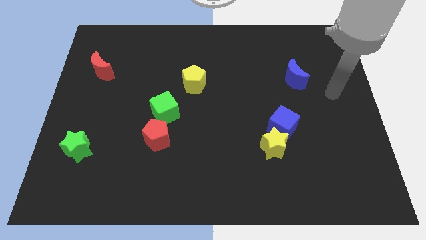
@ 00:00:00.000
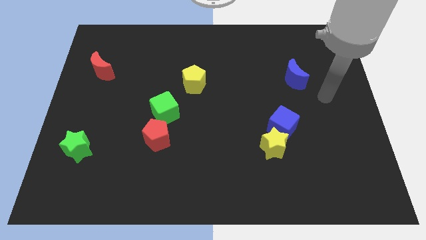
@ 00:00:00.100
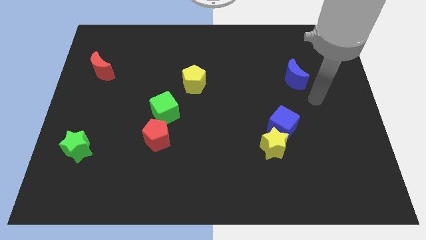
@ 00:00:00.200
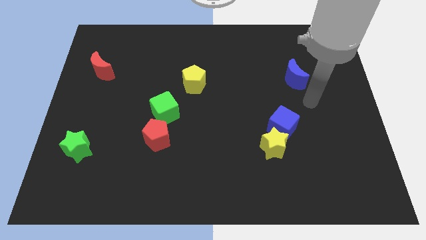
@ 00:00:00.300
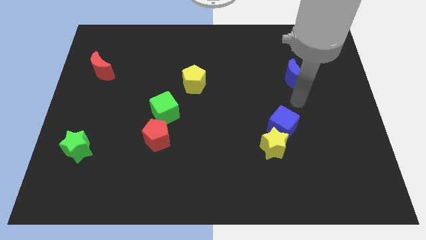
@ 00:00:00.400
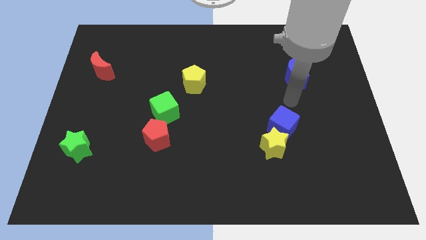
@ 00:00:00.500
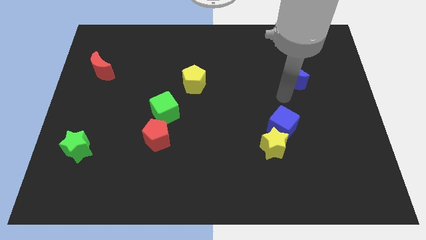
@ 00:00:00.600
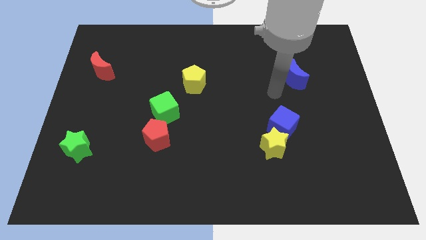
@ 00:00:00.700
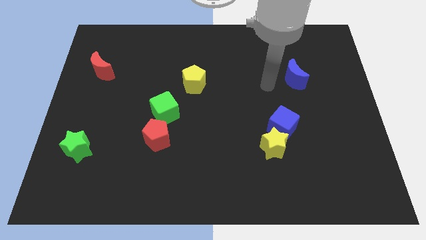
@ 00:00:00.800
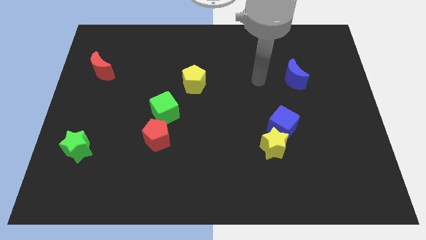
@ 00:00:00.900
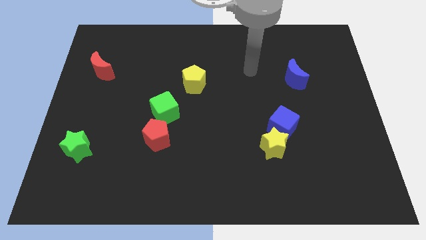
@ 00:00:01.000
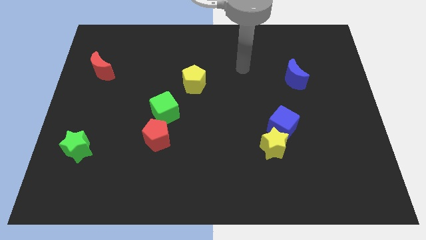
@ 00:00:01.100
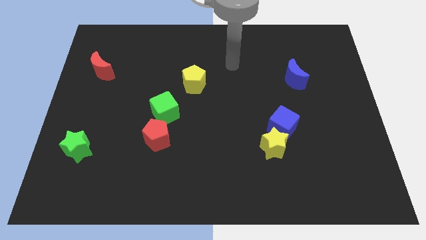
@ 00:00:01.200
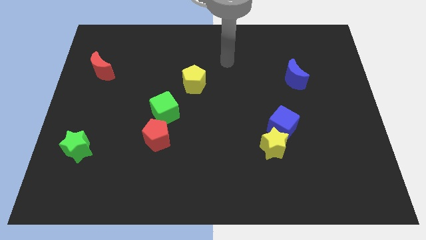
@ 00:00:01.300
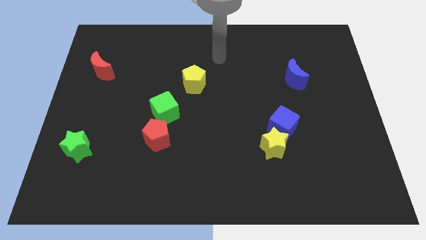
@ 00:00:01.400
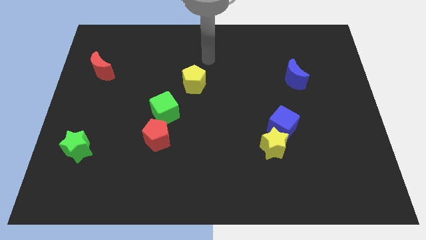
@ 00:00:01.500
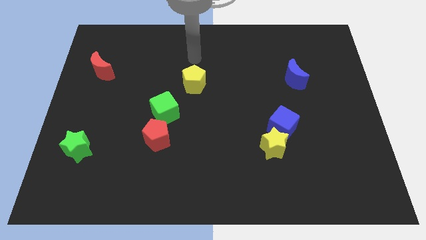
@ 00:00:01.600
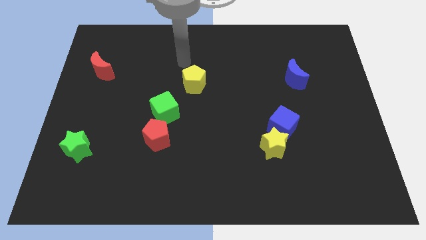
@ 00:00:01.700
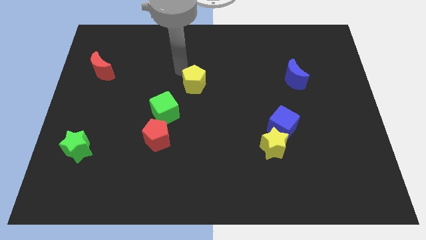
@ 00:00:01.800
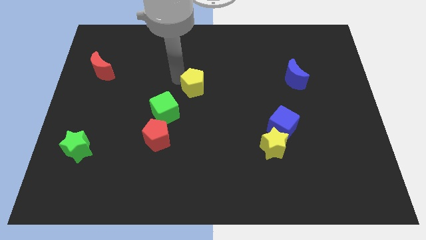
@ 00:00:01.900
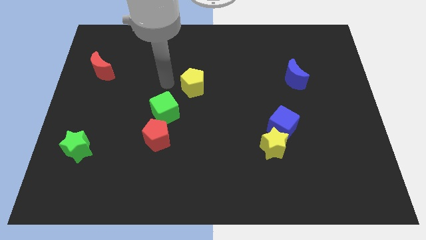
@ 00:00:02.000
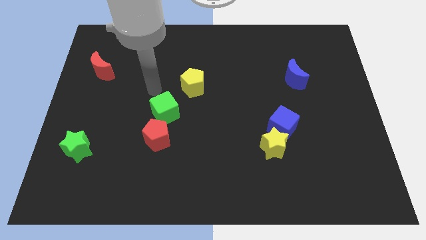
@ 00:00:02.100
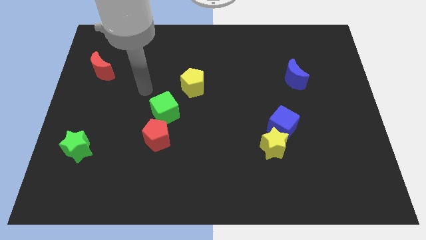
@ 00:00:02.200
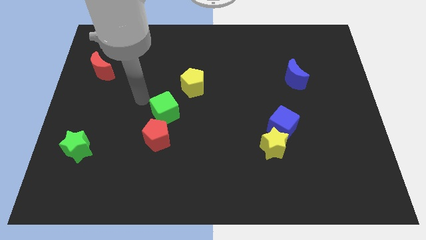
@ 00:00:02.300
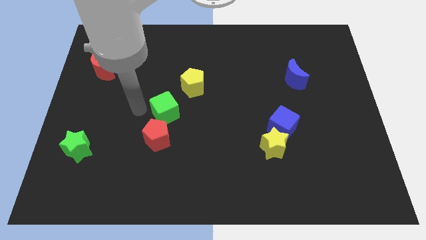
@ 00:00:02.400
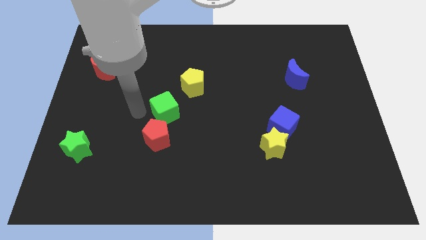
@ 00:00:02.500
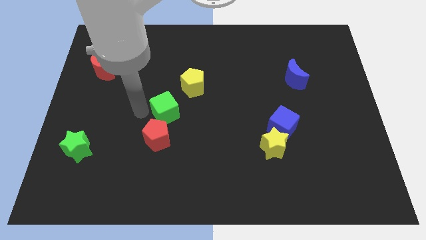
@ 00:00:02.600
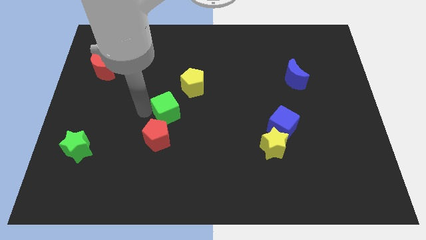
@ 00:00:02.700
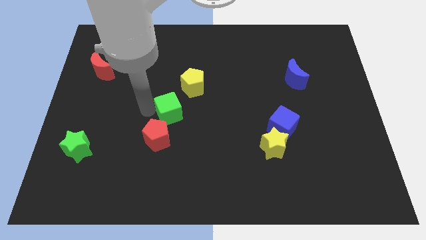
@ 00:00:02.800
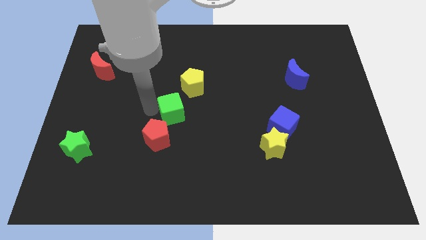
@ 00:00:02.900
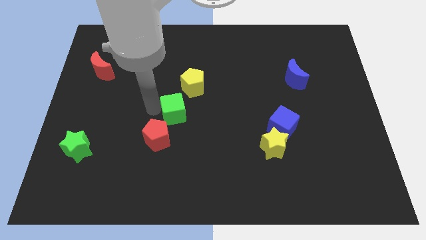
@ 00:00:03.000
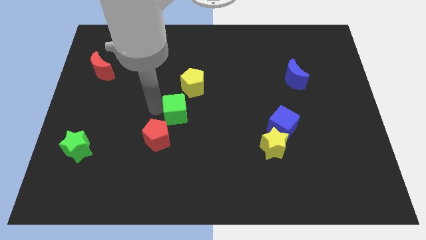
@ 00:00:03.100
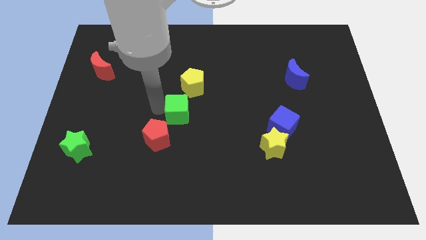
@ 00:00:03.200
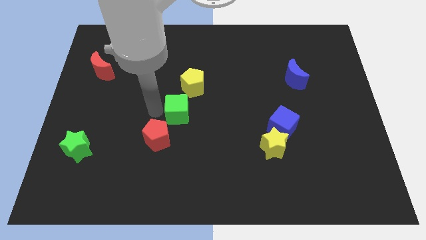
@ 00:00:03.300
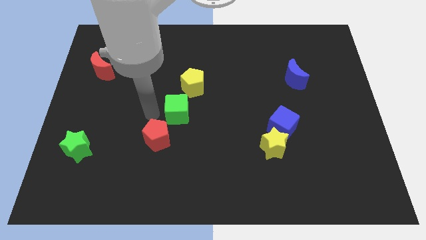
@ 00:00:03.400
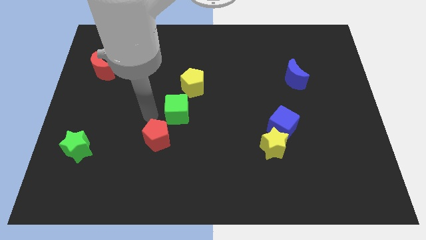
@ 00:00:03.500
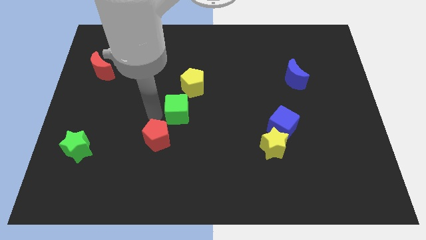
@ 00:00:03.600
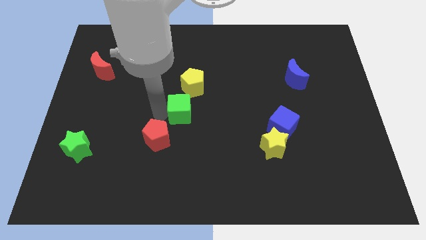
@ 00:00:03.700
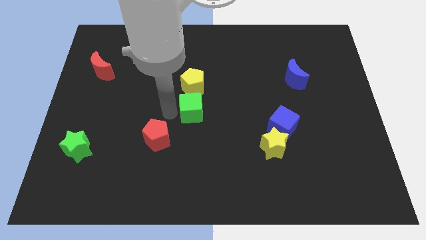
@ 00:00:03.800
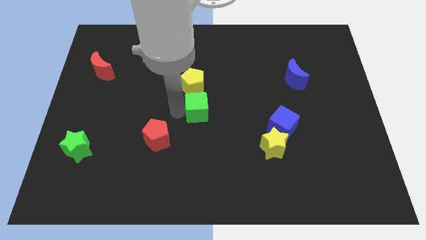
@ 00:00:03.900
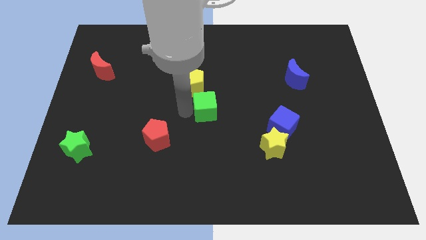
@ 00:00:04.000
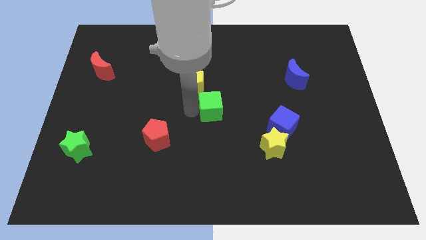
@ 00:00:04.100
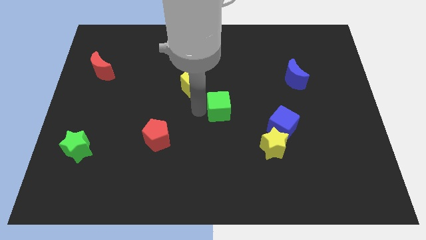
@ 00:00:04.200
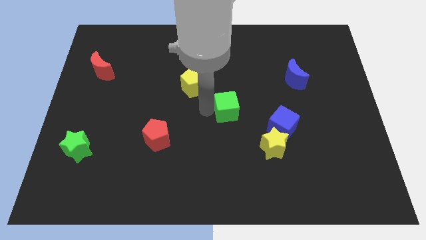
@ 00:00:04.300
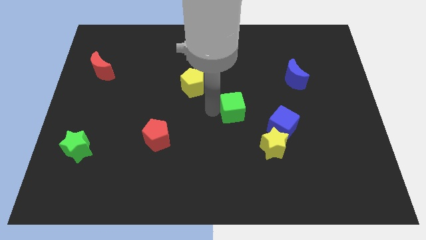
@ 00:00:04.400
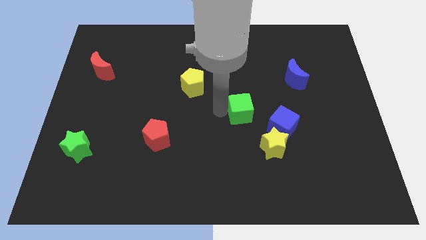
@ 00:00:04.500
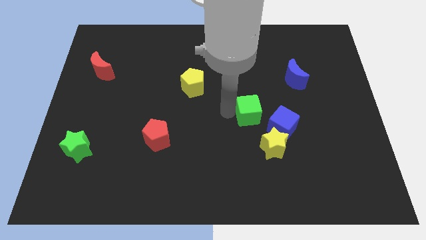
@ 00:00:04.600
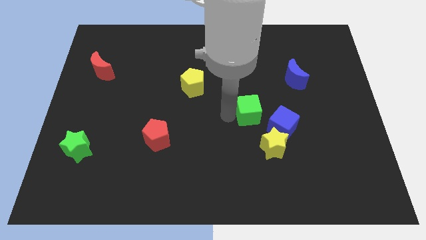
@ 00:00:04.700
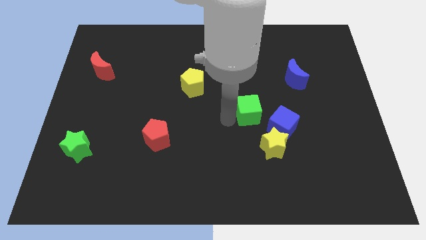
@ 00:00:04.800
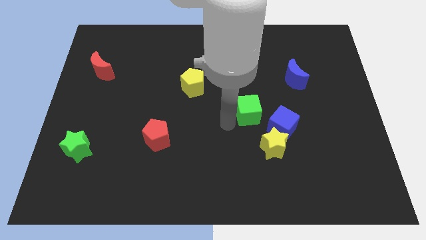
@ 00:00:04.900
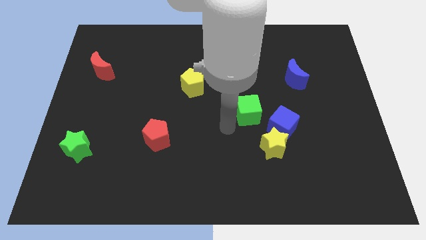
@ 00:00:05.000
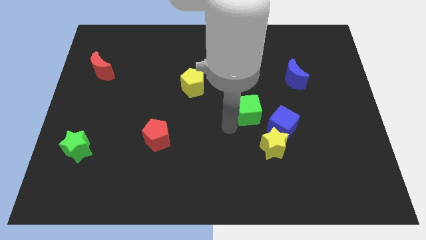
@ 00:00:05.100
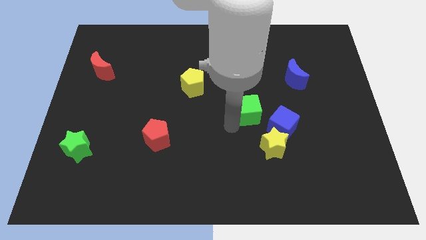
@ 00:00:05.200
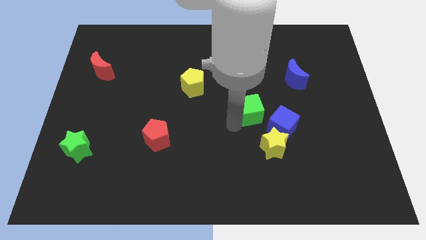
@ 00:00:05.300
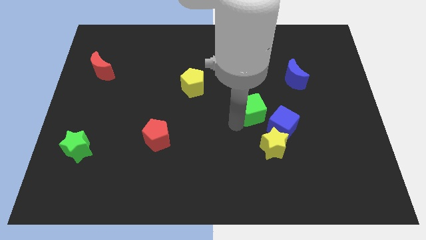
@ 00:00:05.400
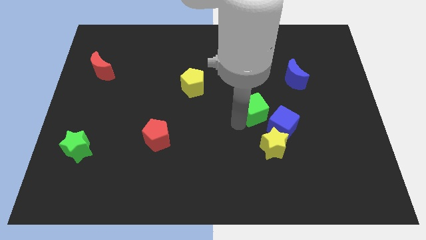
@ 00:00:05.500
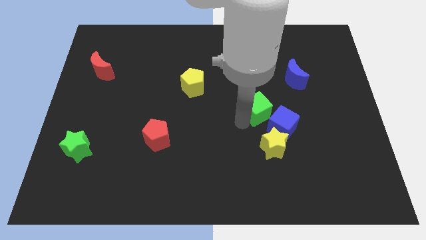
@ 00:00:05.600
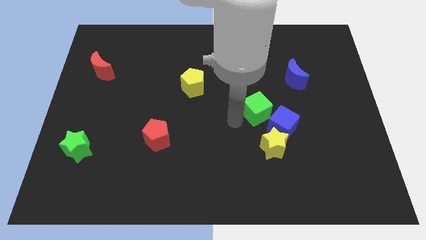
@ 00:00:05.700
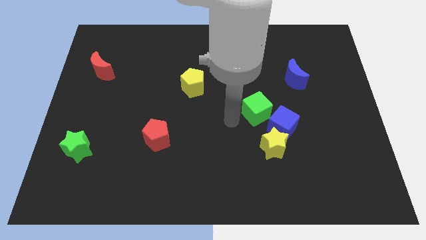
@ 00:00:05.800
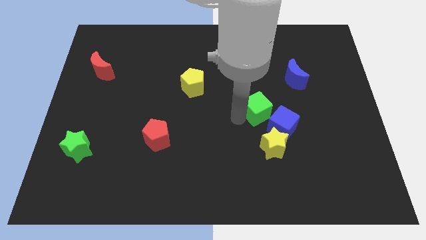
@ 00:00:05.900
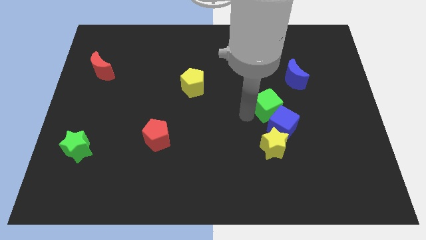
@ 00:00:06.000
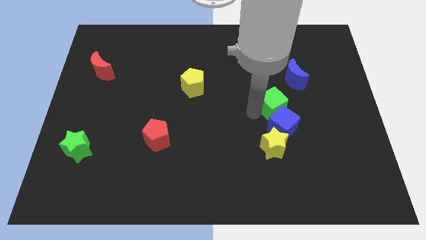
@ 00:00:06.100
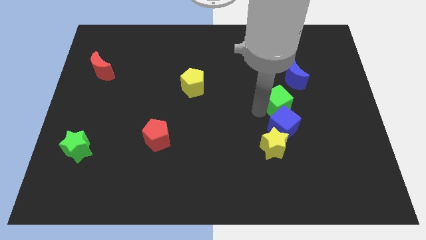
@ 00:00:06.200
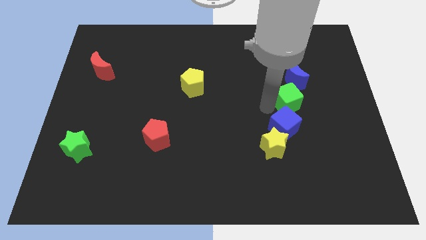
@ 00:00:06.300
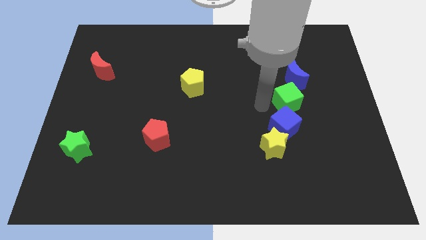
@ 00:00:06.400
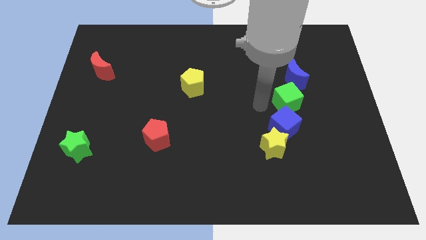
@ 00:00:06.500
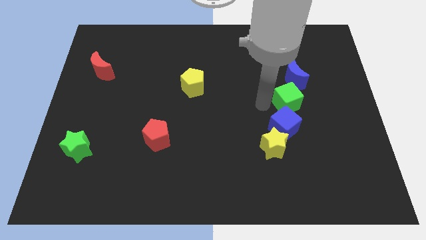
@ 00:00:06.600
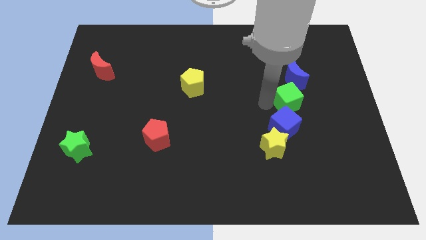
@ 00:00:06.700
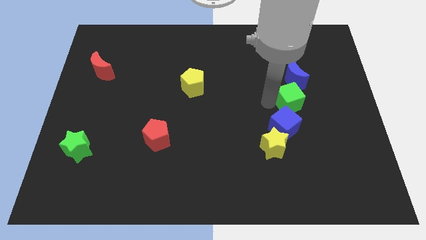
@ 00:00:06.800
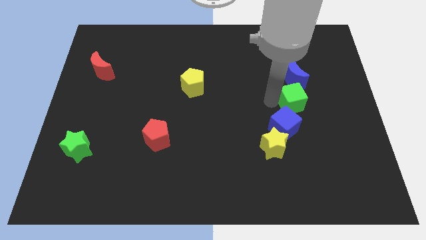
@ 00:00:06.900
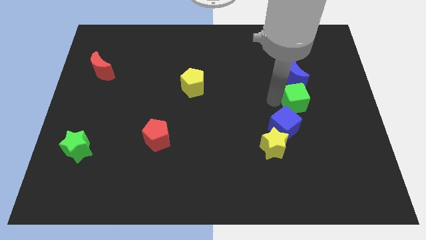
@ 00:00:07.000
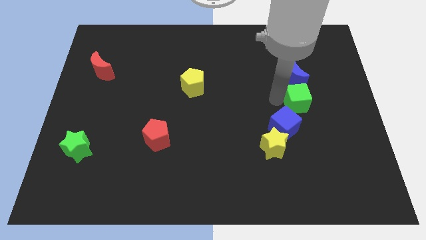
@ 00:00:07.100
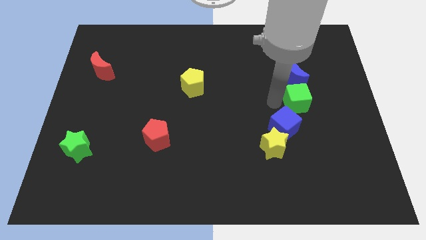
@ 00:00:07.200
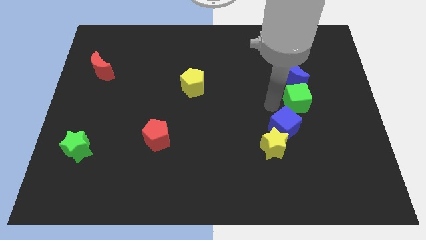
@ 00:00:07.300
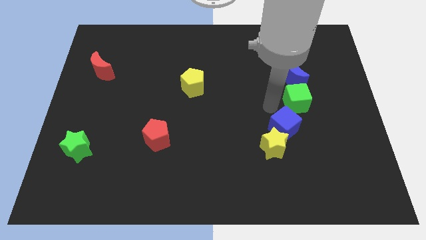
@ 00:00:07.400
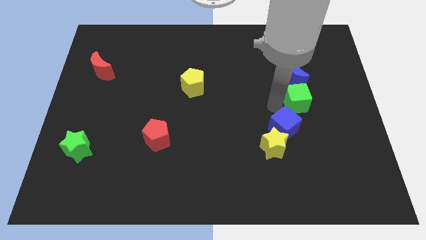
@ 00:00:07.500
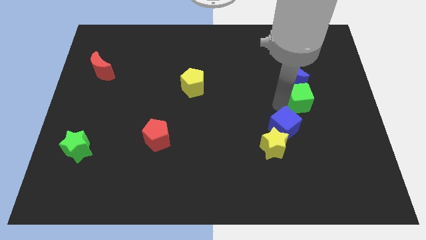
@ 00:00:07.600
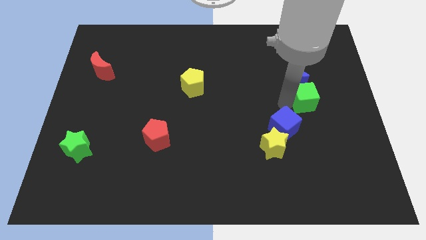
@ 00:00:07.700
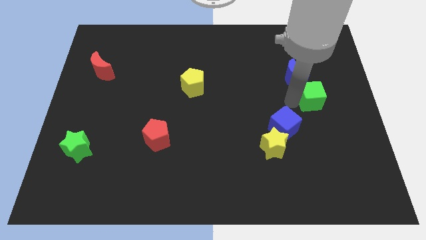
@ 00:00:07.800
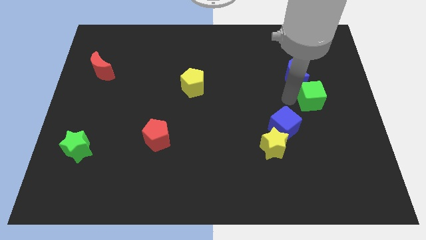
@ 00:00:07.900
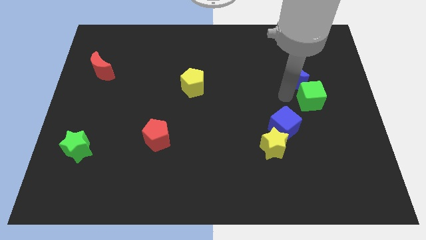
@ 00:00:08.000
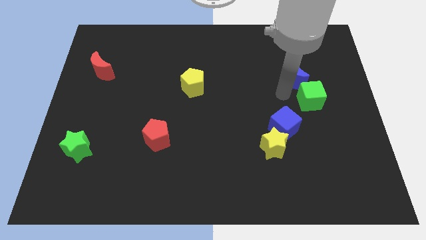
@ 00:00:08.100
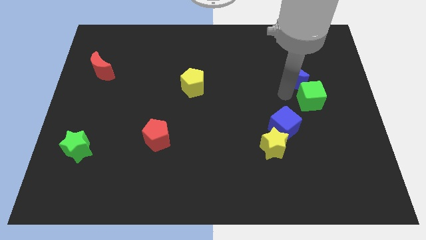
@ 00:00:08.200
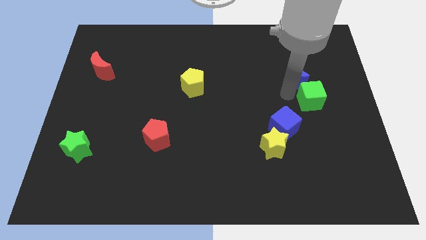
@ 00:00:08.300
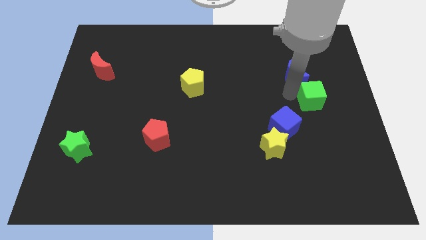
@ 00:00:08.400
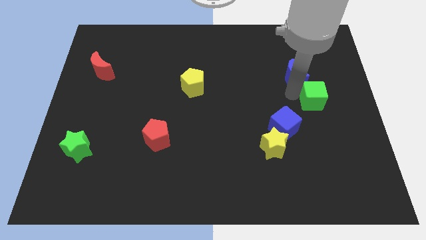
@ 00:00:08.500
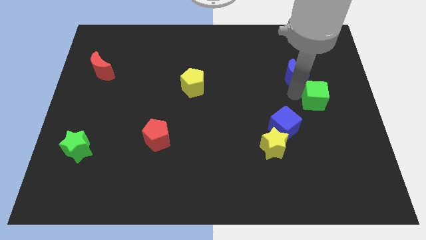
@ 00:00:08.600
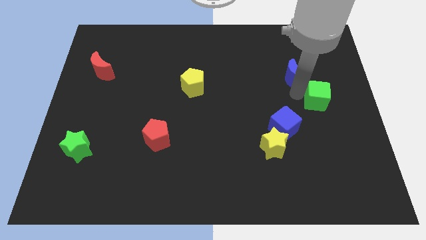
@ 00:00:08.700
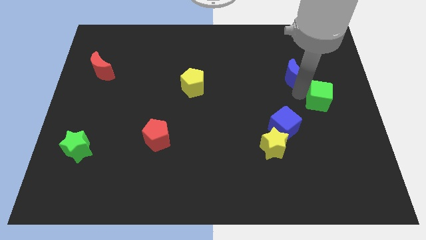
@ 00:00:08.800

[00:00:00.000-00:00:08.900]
move the green cube to the right side of the board
